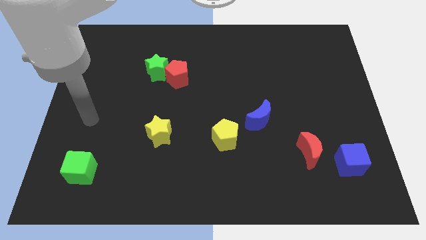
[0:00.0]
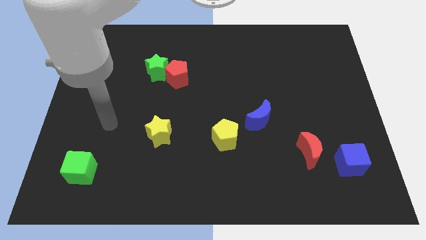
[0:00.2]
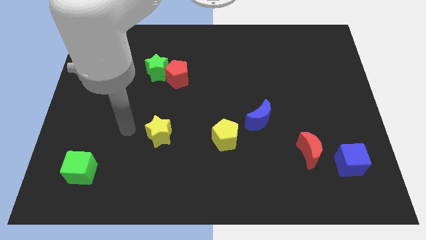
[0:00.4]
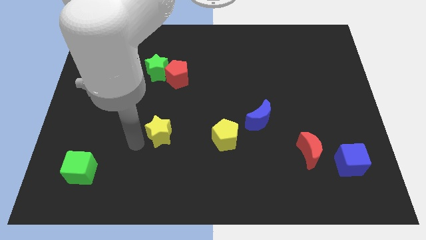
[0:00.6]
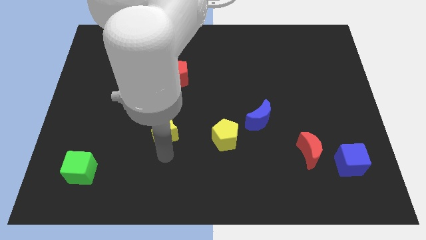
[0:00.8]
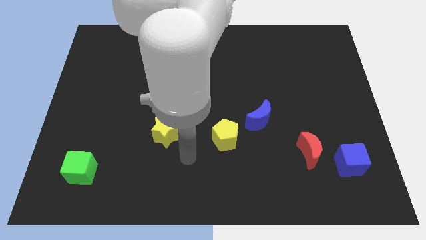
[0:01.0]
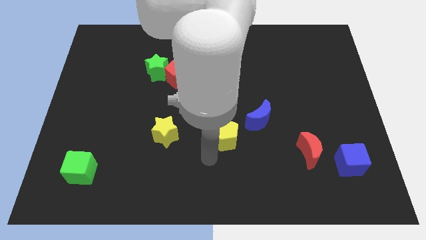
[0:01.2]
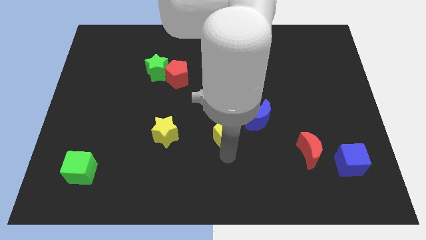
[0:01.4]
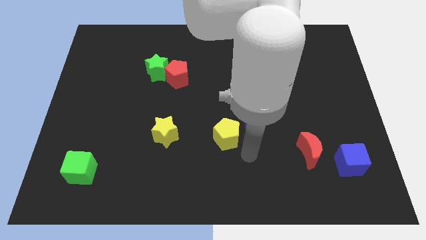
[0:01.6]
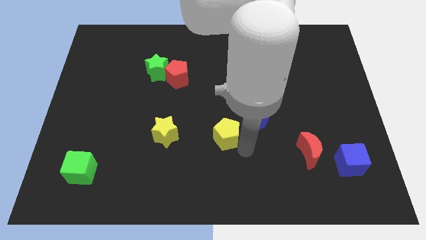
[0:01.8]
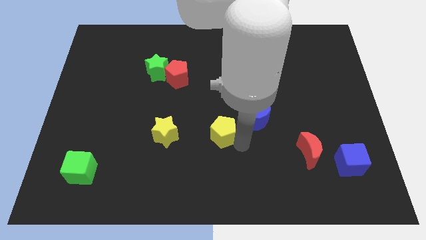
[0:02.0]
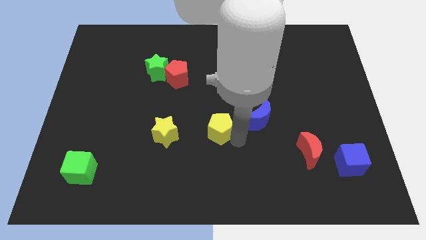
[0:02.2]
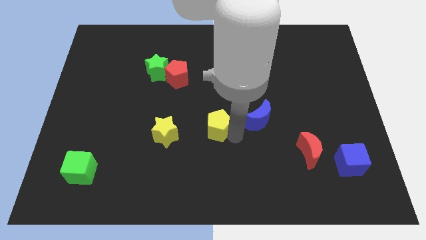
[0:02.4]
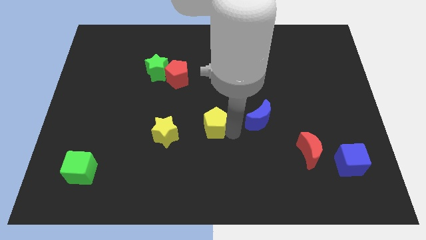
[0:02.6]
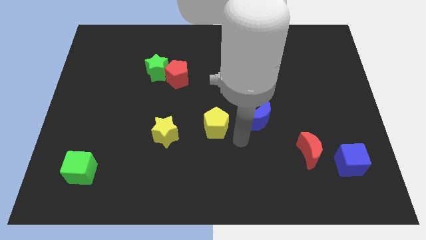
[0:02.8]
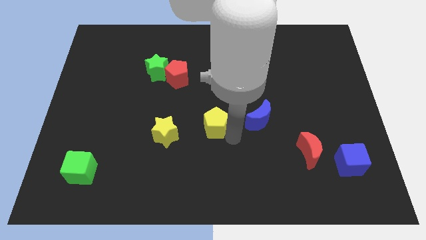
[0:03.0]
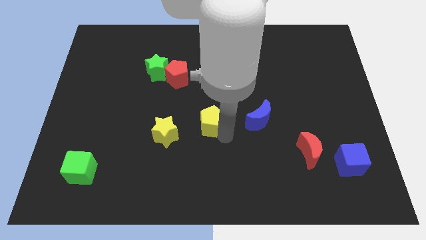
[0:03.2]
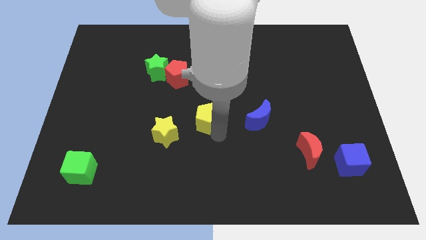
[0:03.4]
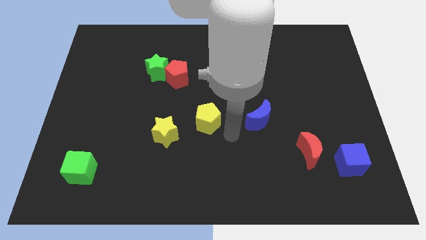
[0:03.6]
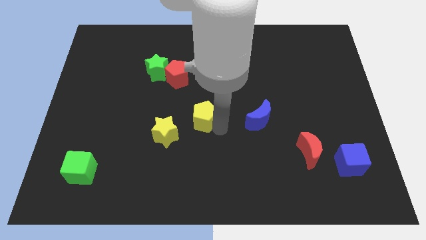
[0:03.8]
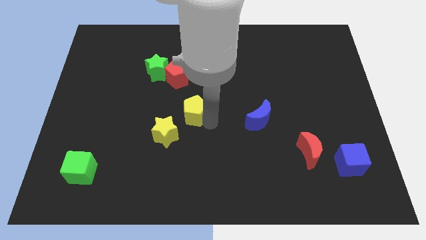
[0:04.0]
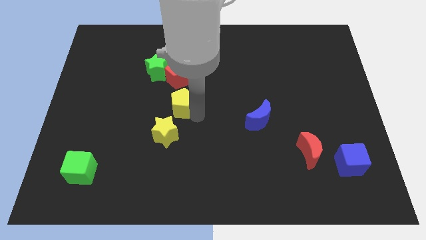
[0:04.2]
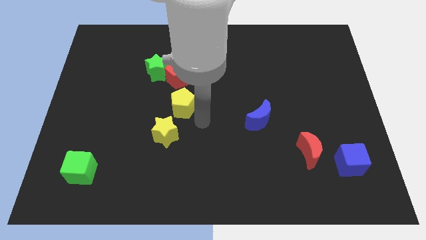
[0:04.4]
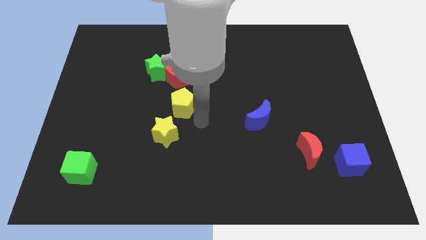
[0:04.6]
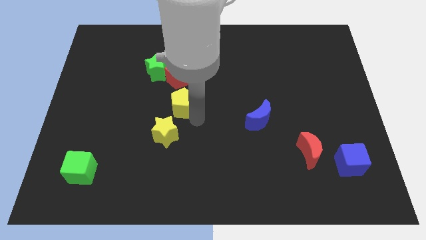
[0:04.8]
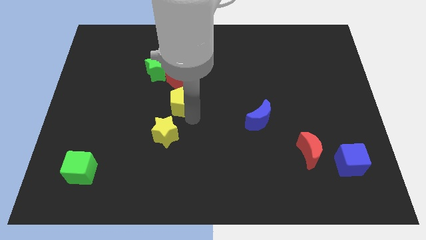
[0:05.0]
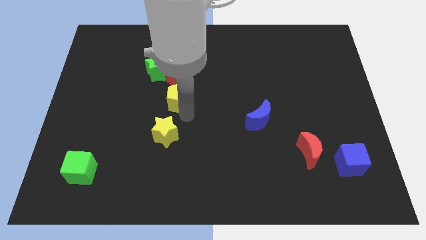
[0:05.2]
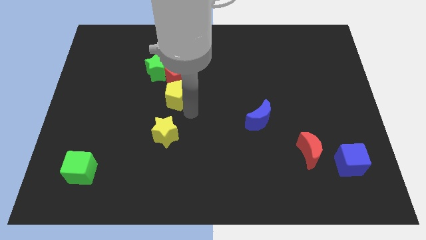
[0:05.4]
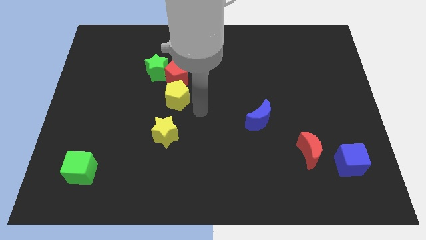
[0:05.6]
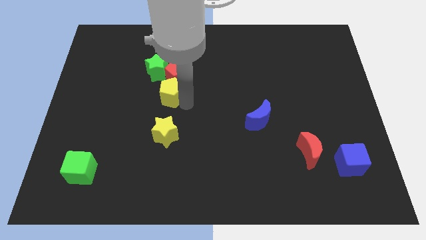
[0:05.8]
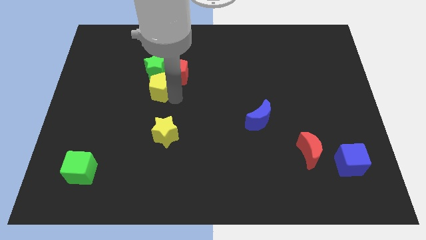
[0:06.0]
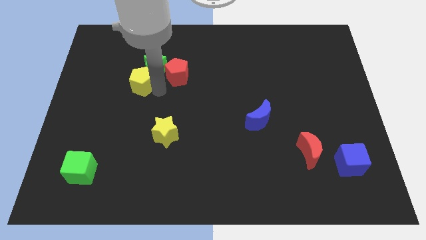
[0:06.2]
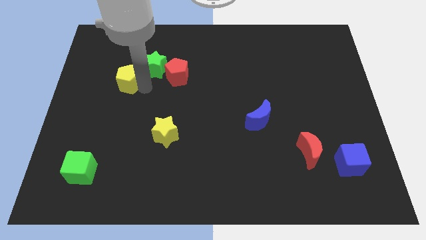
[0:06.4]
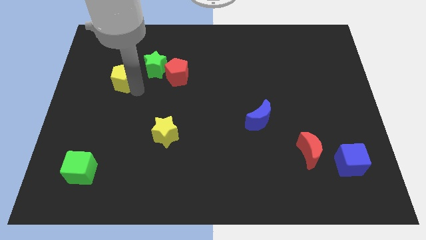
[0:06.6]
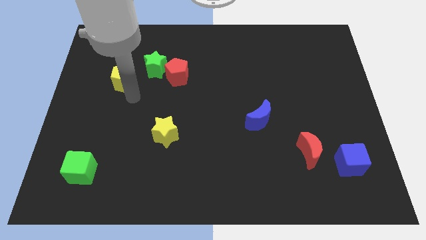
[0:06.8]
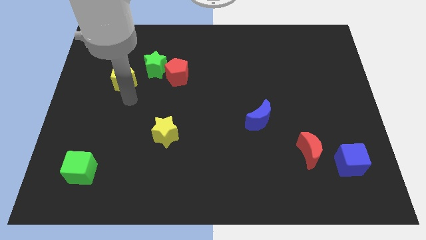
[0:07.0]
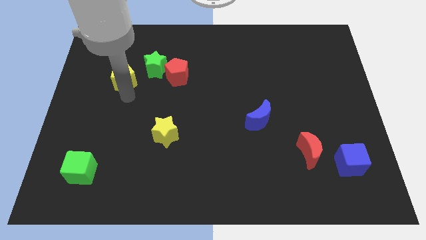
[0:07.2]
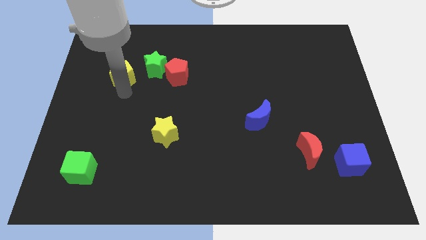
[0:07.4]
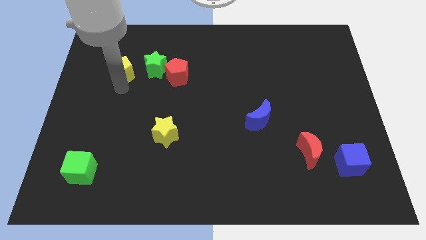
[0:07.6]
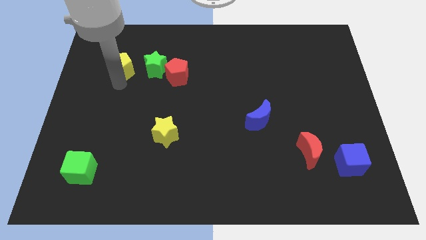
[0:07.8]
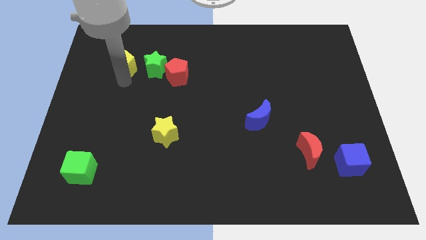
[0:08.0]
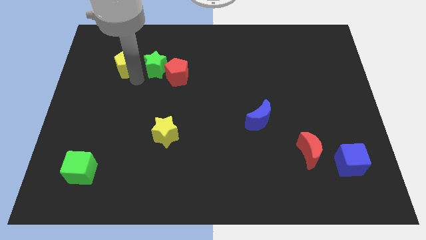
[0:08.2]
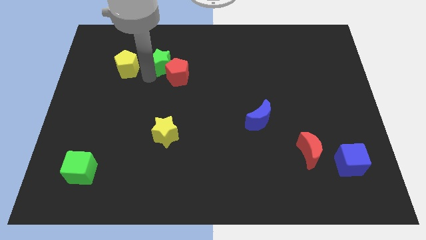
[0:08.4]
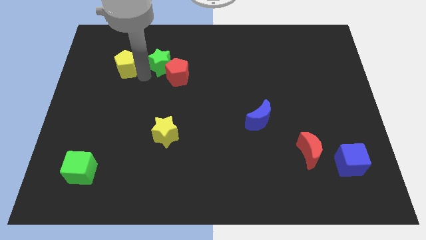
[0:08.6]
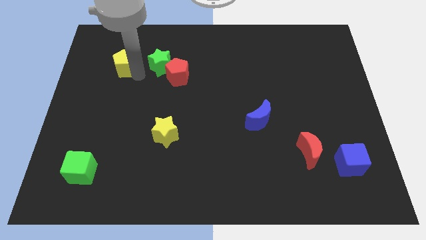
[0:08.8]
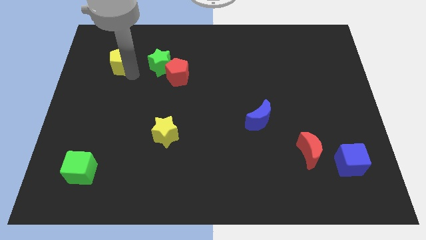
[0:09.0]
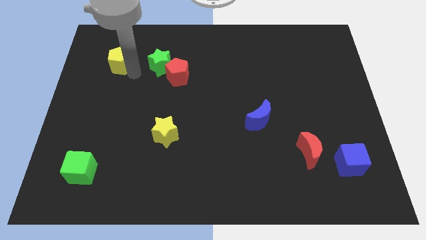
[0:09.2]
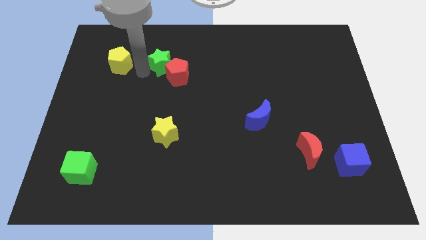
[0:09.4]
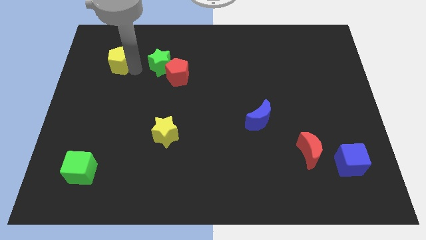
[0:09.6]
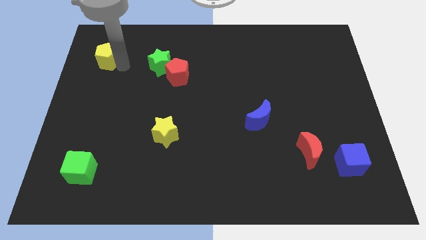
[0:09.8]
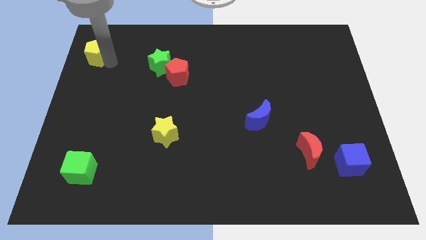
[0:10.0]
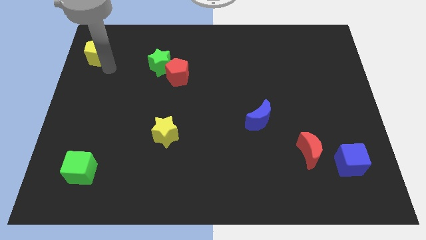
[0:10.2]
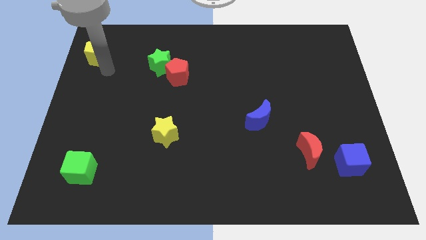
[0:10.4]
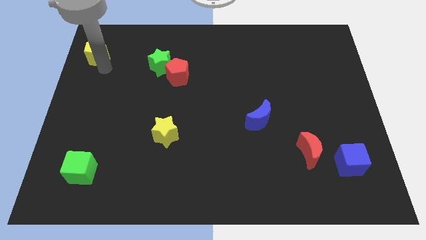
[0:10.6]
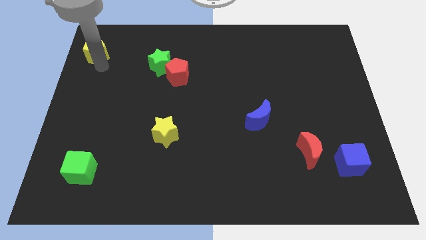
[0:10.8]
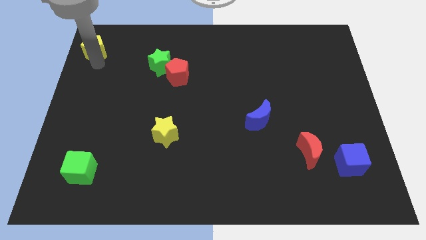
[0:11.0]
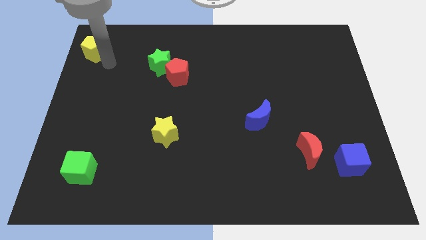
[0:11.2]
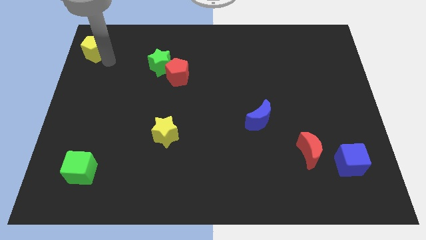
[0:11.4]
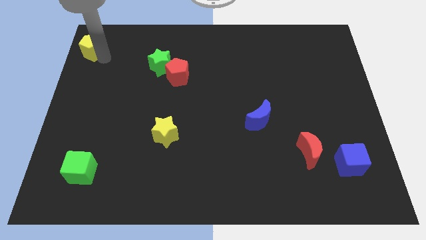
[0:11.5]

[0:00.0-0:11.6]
push the yellow pentagon to the top left of the board
